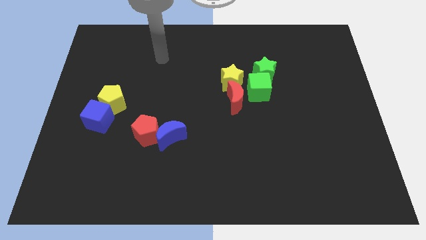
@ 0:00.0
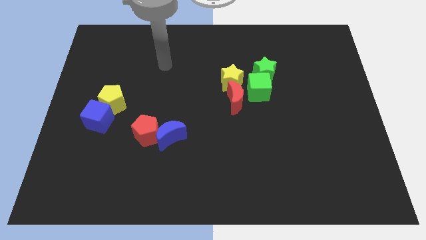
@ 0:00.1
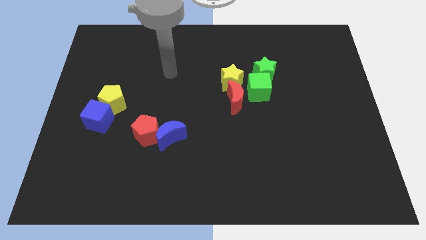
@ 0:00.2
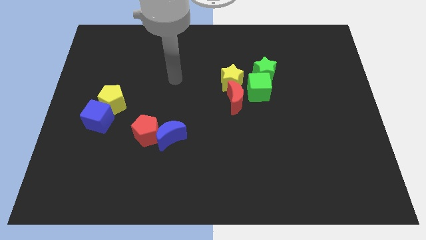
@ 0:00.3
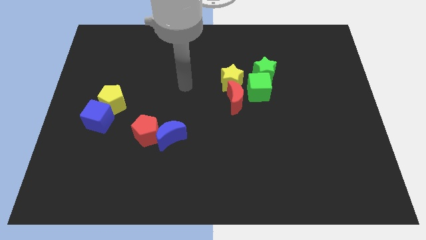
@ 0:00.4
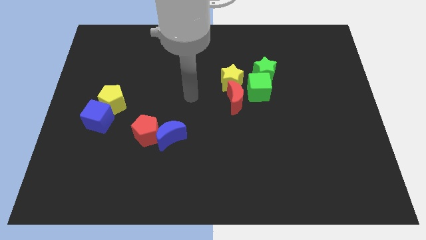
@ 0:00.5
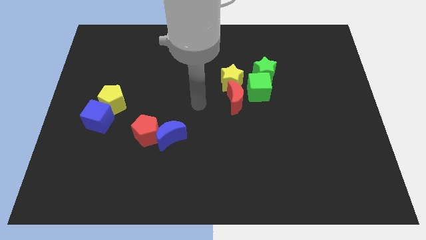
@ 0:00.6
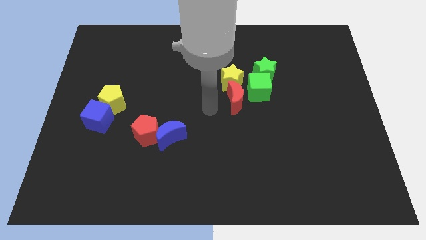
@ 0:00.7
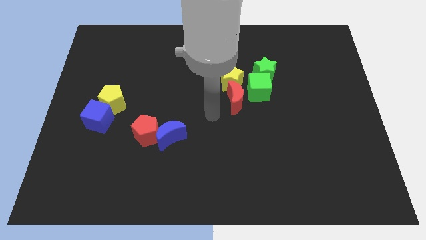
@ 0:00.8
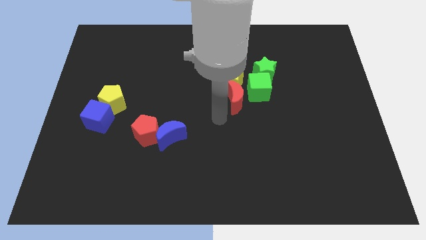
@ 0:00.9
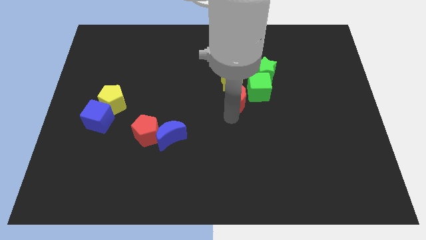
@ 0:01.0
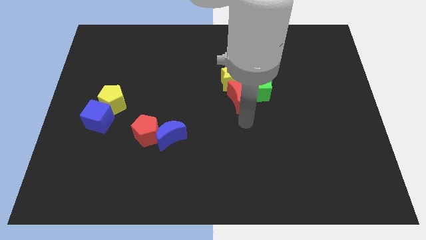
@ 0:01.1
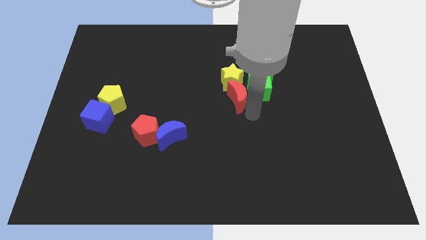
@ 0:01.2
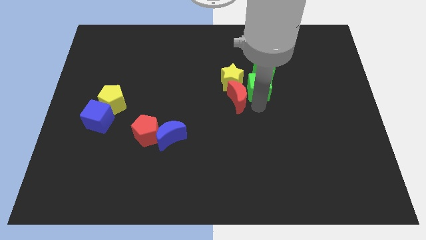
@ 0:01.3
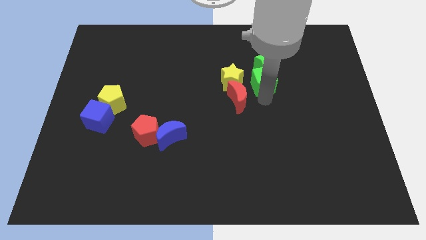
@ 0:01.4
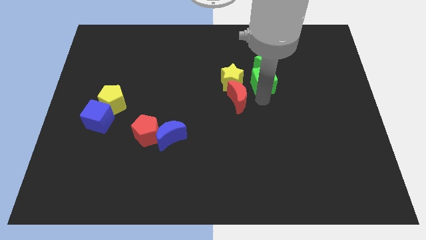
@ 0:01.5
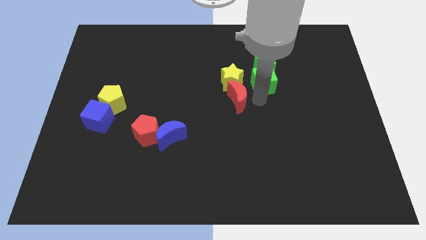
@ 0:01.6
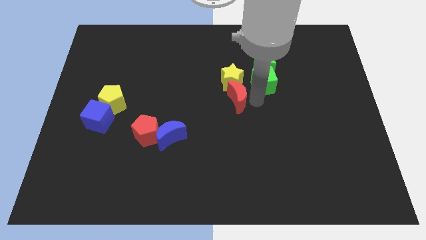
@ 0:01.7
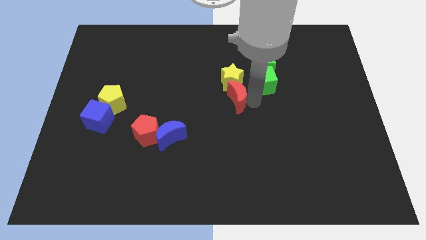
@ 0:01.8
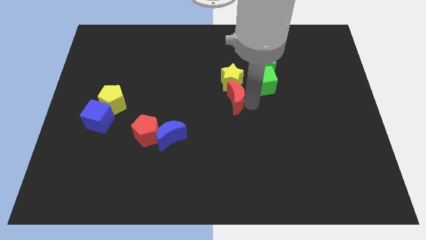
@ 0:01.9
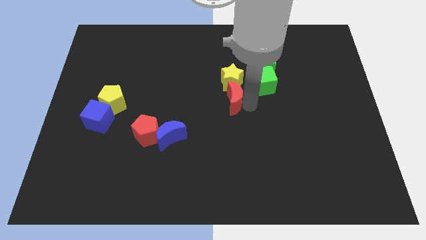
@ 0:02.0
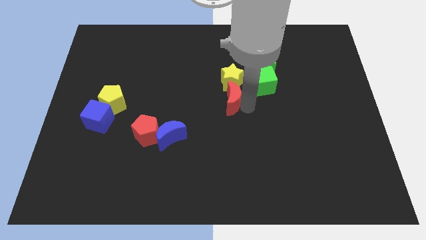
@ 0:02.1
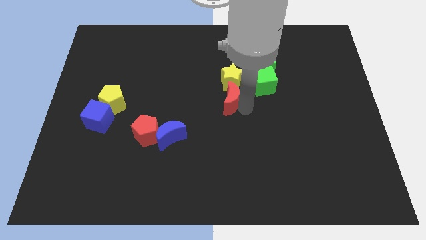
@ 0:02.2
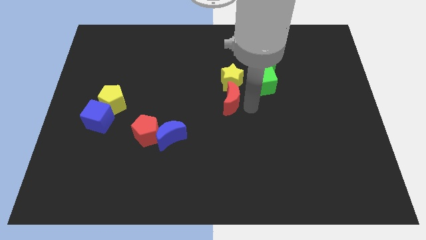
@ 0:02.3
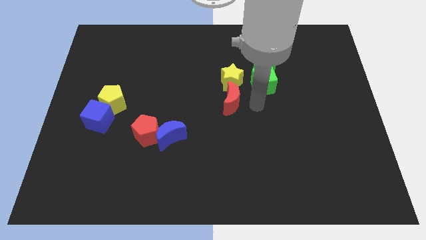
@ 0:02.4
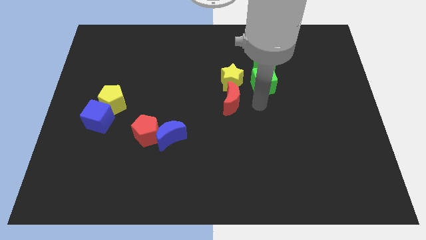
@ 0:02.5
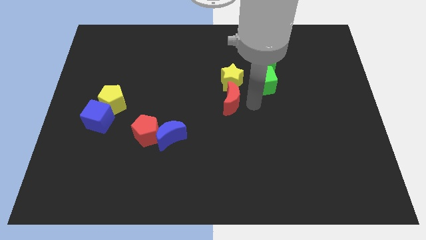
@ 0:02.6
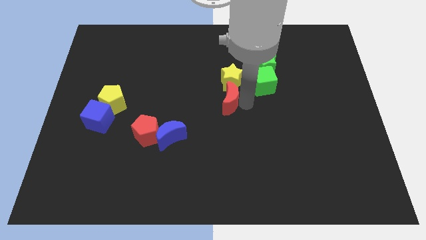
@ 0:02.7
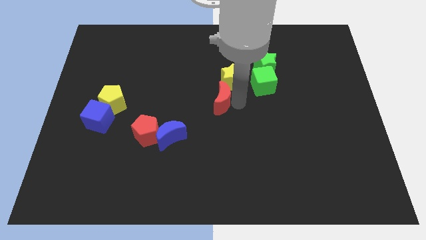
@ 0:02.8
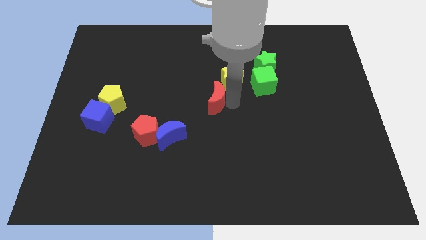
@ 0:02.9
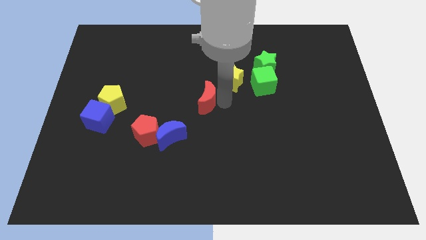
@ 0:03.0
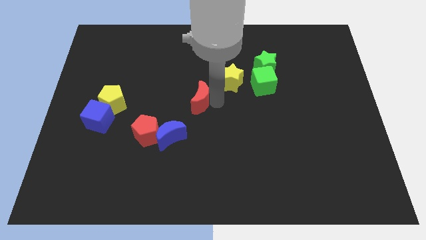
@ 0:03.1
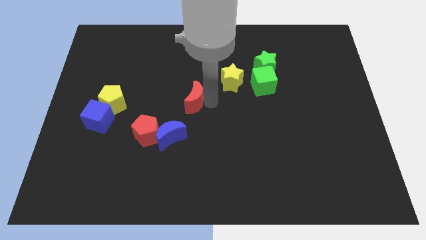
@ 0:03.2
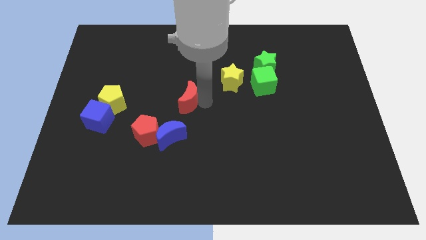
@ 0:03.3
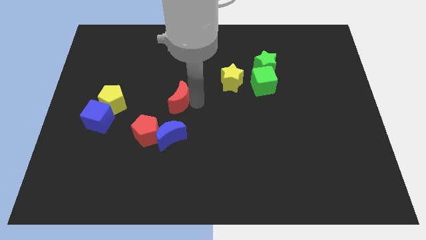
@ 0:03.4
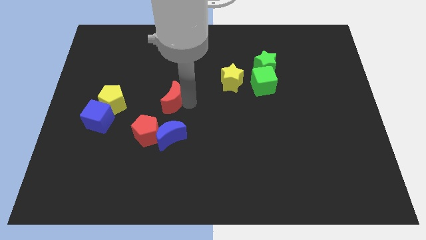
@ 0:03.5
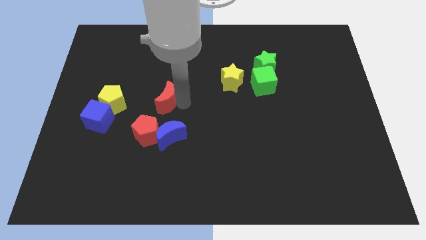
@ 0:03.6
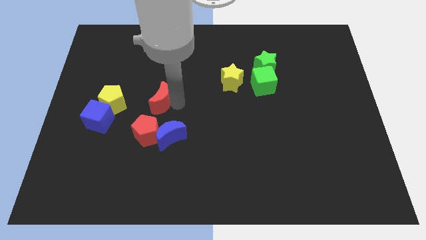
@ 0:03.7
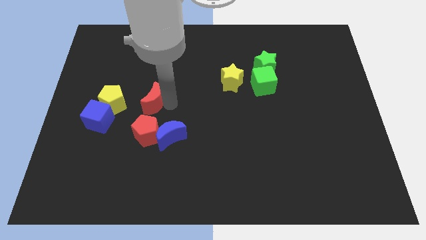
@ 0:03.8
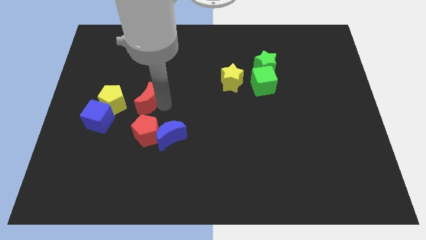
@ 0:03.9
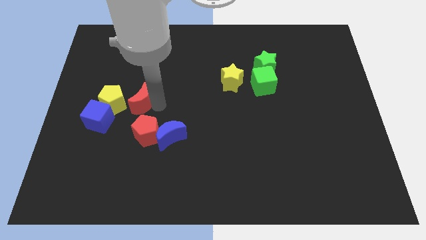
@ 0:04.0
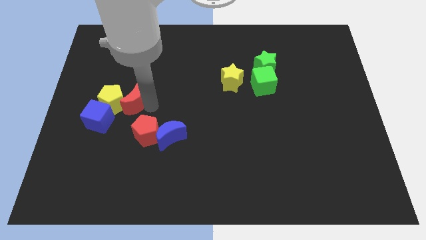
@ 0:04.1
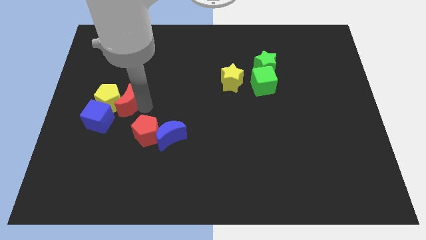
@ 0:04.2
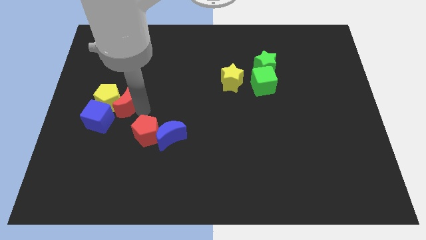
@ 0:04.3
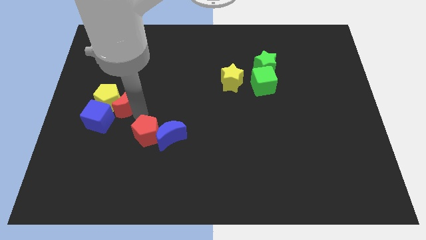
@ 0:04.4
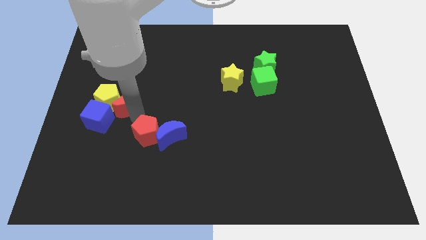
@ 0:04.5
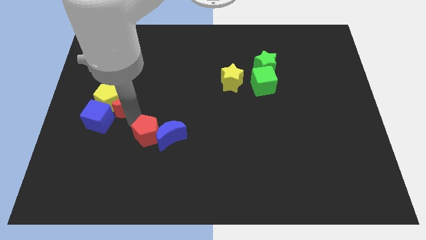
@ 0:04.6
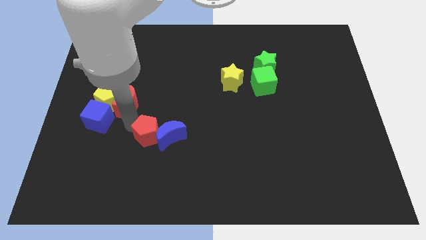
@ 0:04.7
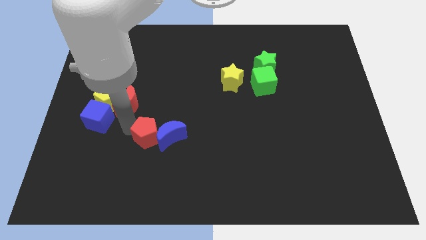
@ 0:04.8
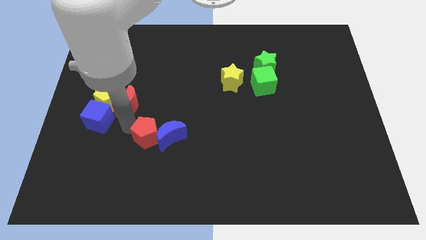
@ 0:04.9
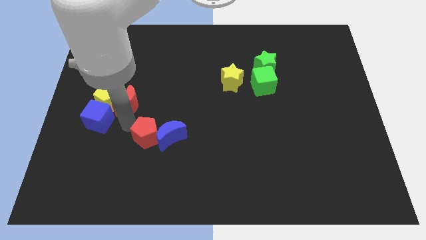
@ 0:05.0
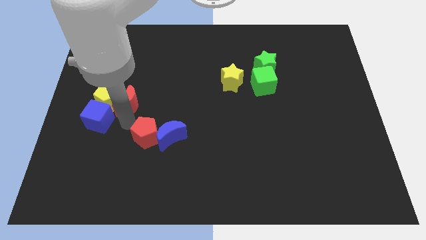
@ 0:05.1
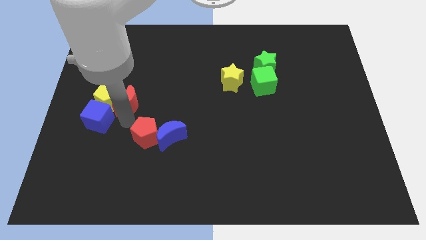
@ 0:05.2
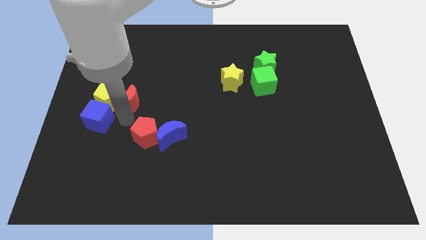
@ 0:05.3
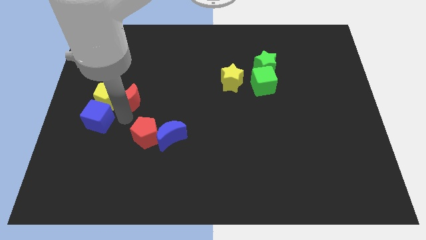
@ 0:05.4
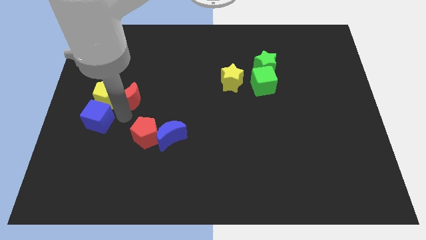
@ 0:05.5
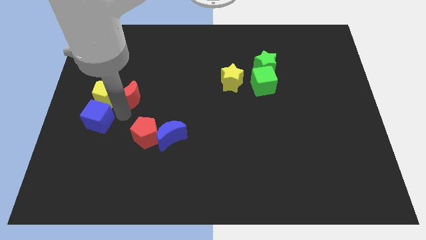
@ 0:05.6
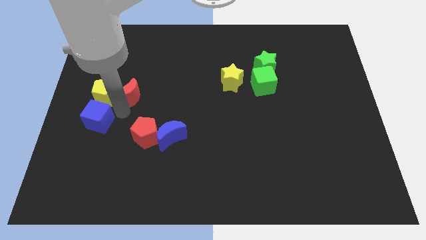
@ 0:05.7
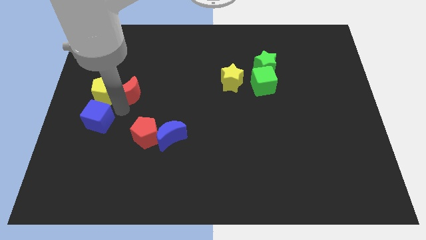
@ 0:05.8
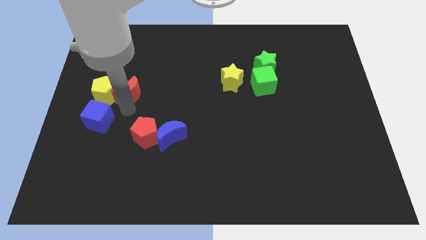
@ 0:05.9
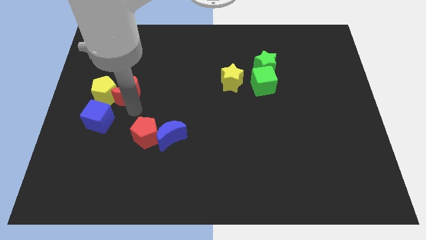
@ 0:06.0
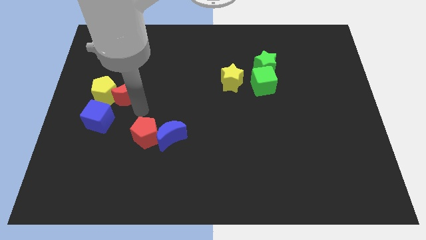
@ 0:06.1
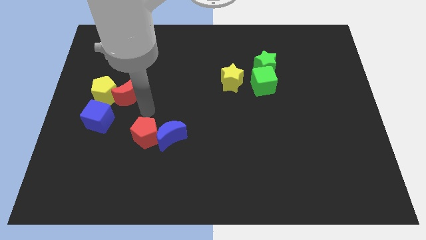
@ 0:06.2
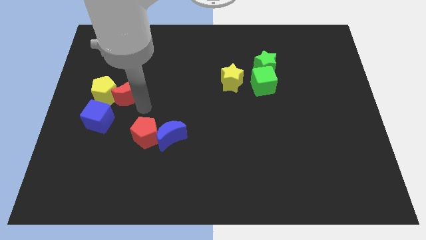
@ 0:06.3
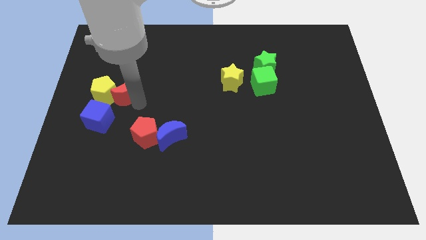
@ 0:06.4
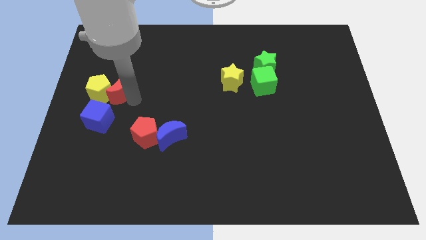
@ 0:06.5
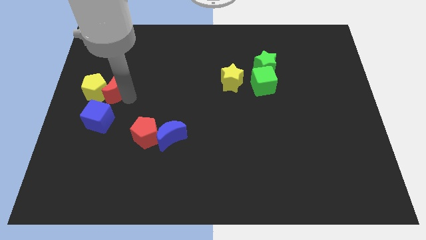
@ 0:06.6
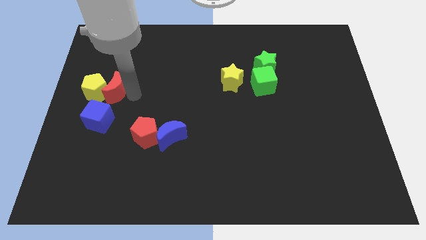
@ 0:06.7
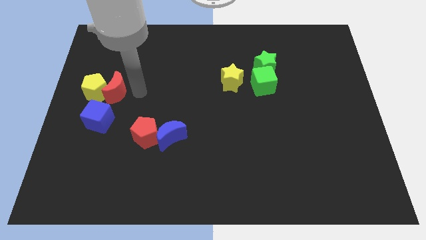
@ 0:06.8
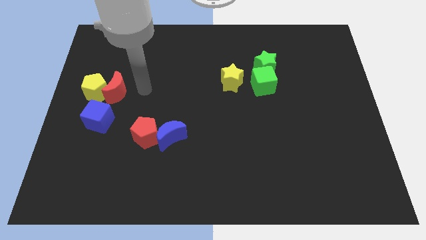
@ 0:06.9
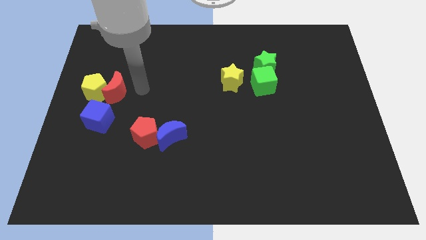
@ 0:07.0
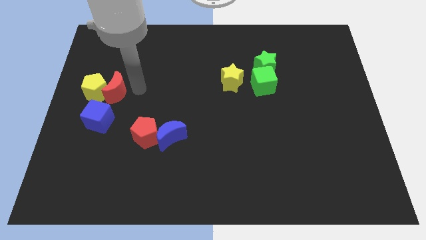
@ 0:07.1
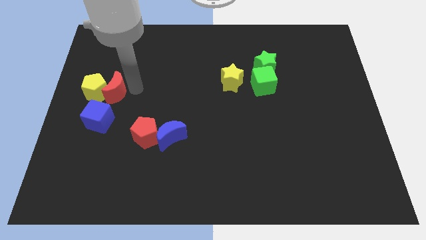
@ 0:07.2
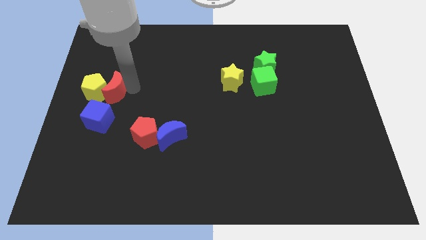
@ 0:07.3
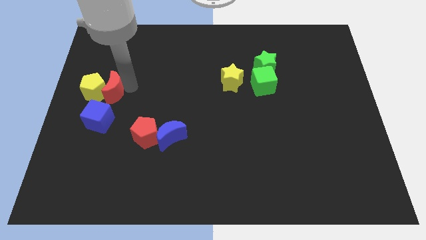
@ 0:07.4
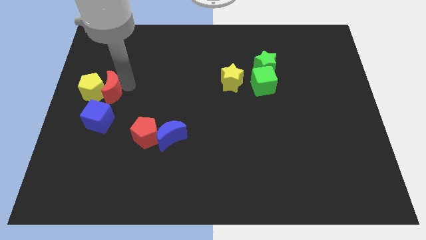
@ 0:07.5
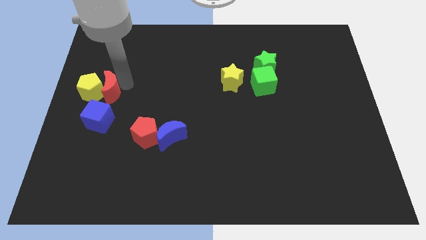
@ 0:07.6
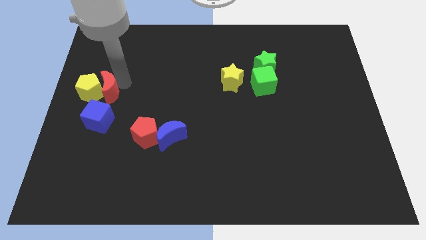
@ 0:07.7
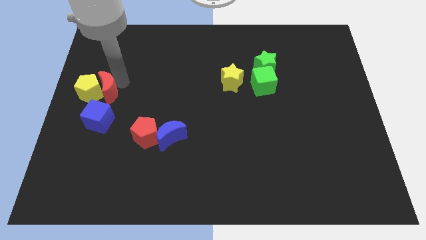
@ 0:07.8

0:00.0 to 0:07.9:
put the red moon to the center left
